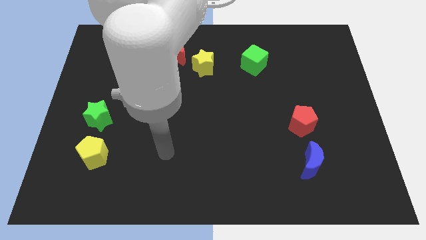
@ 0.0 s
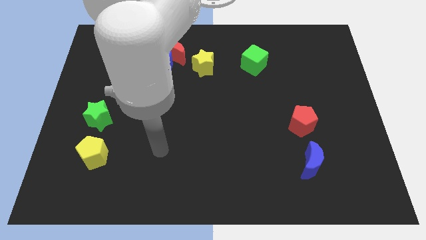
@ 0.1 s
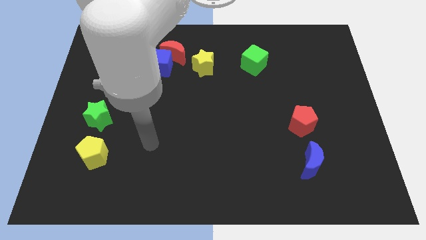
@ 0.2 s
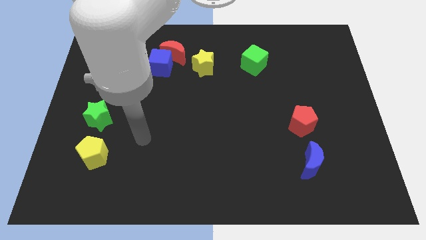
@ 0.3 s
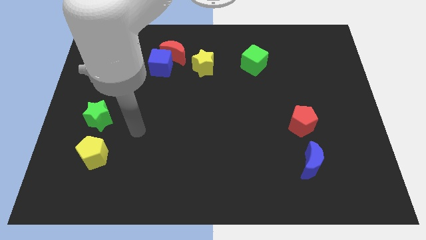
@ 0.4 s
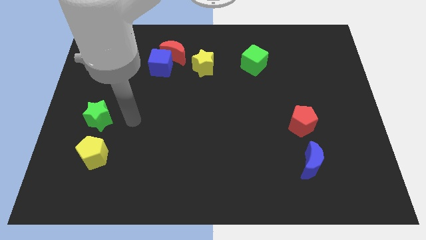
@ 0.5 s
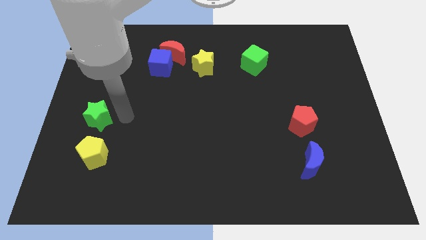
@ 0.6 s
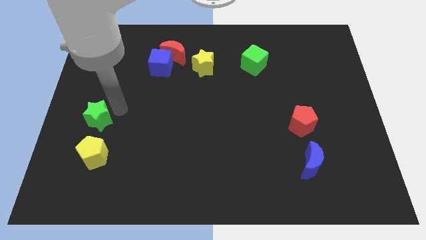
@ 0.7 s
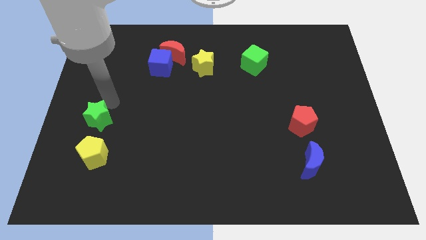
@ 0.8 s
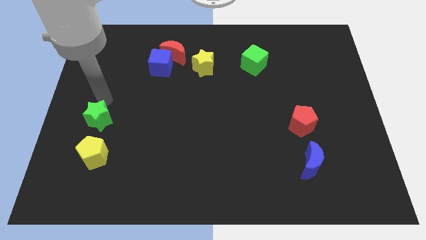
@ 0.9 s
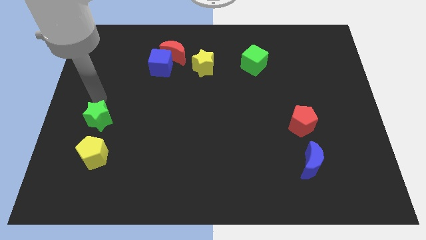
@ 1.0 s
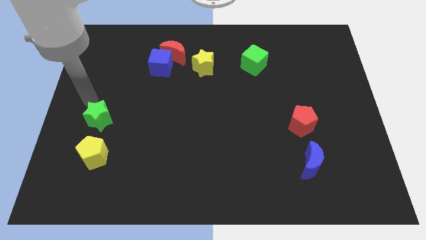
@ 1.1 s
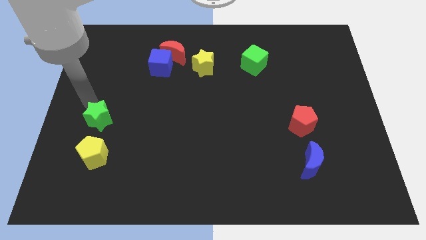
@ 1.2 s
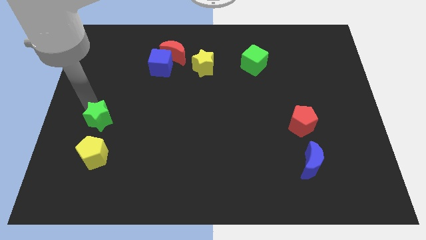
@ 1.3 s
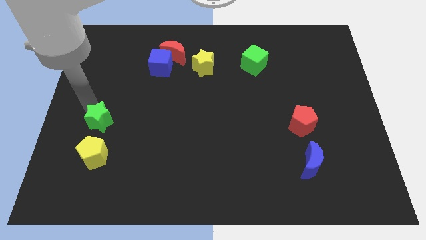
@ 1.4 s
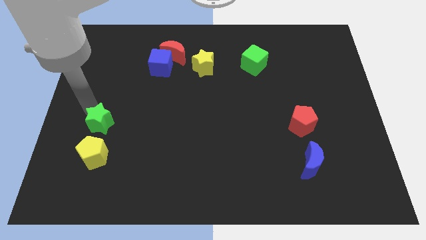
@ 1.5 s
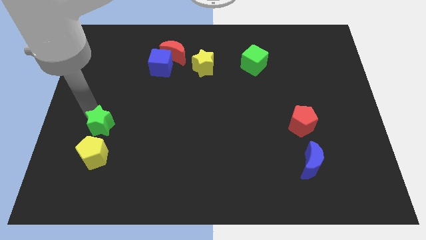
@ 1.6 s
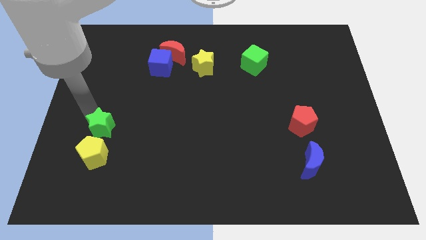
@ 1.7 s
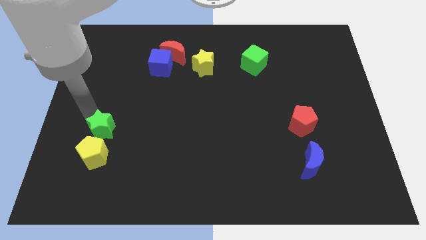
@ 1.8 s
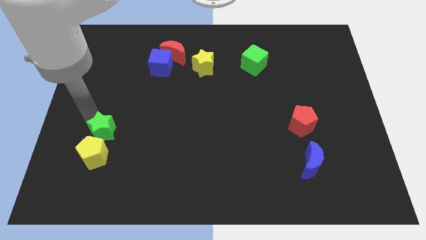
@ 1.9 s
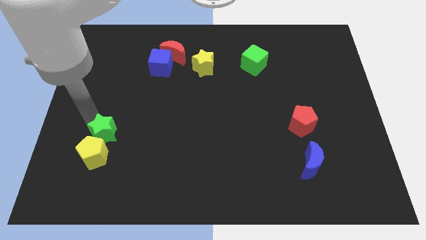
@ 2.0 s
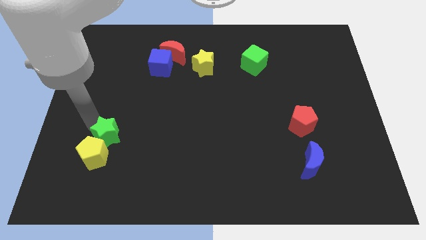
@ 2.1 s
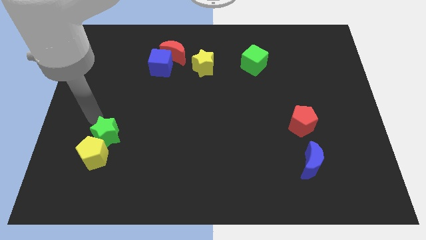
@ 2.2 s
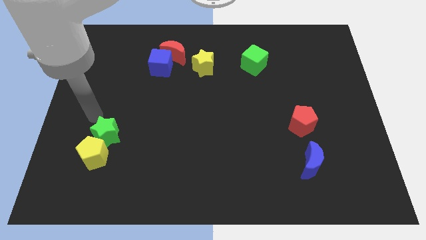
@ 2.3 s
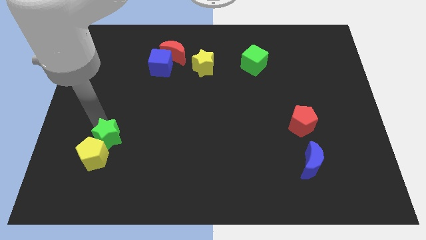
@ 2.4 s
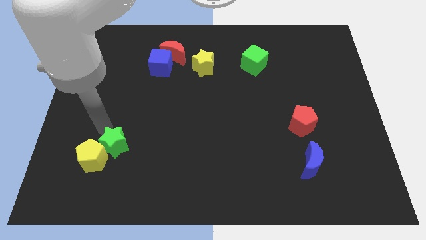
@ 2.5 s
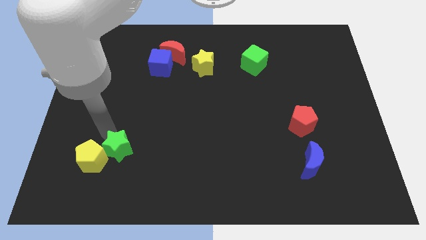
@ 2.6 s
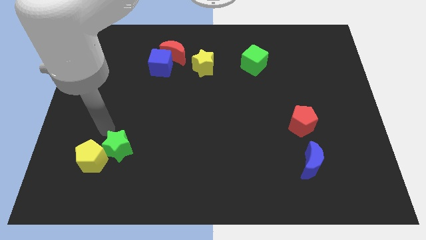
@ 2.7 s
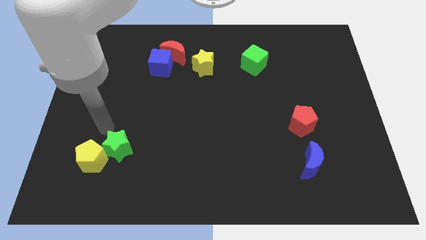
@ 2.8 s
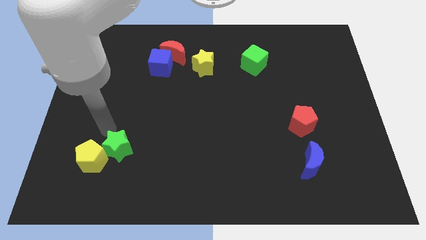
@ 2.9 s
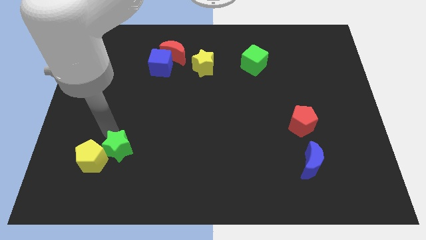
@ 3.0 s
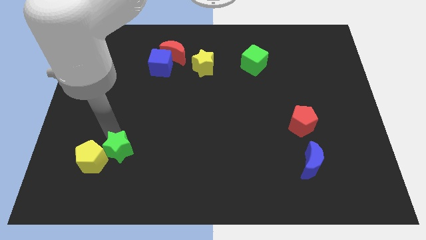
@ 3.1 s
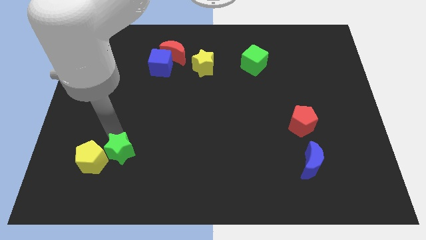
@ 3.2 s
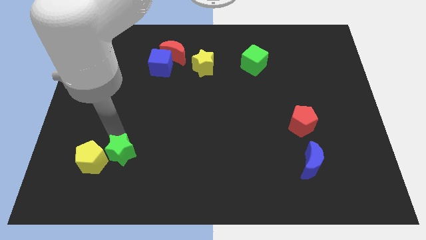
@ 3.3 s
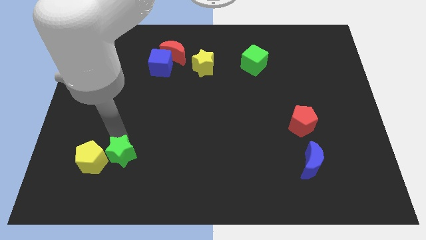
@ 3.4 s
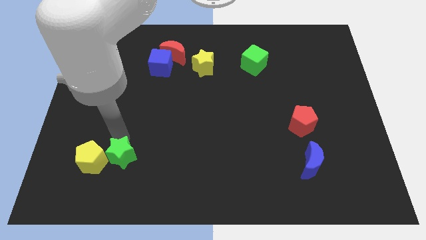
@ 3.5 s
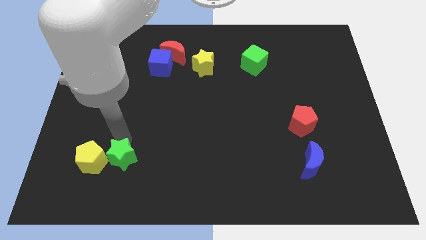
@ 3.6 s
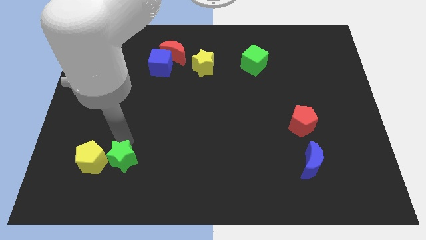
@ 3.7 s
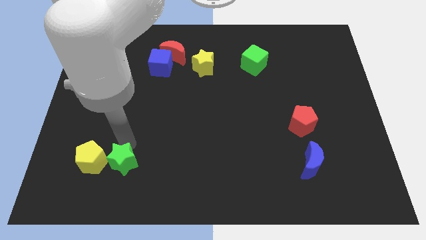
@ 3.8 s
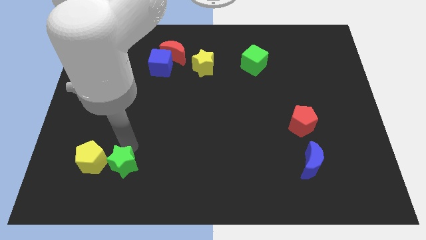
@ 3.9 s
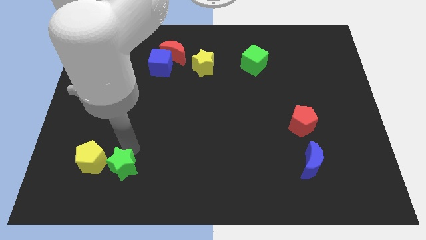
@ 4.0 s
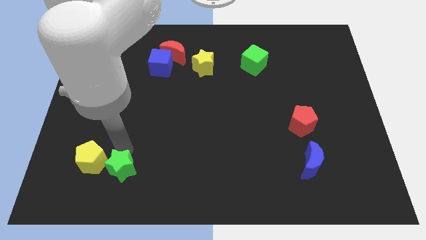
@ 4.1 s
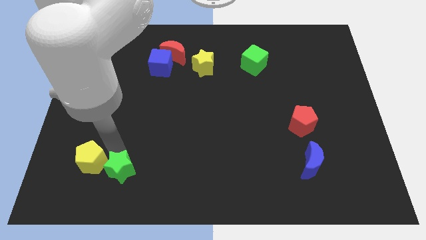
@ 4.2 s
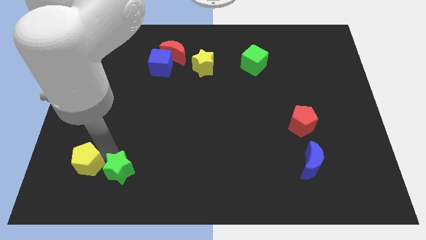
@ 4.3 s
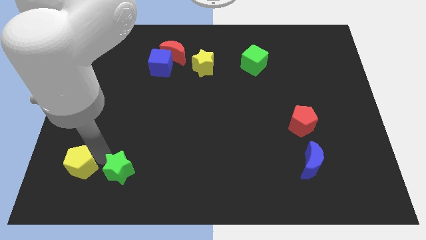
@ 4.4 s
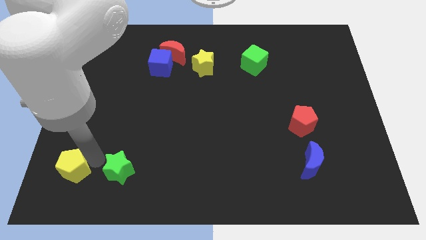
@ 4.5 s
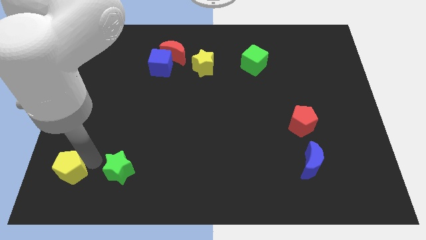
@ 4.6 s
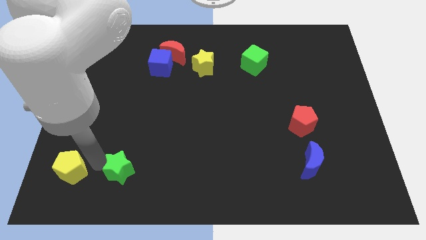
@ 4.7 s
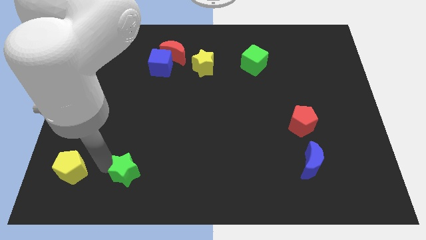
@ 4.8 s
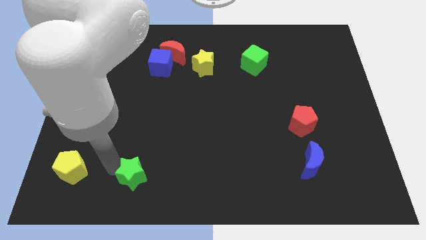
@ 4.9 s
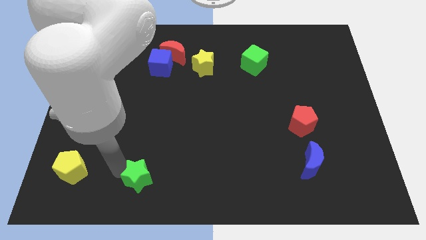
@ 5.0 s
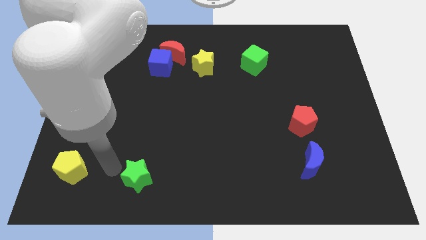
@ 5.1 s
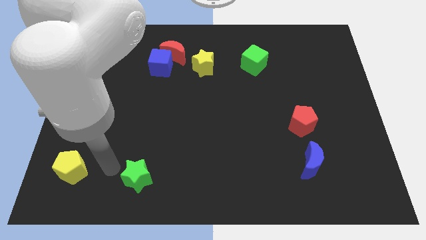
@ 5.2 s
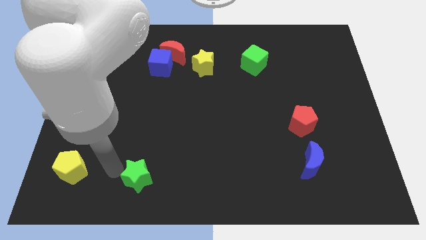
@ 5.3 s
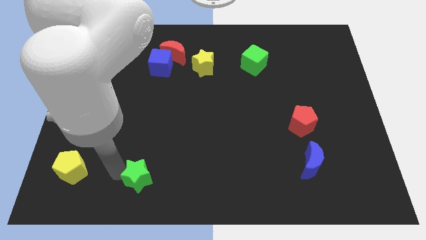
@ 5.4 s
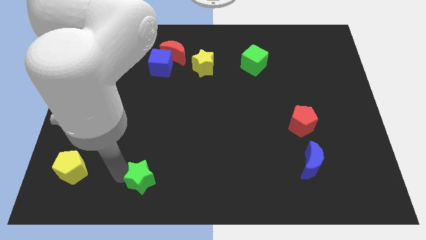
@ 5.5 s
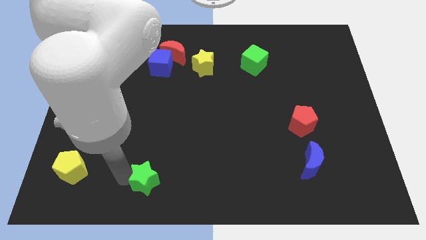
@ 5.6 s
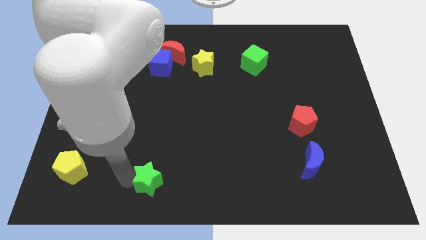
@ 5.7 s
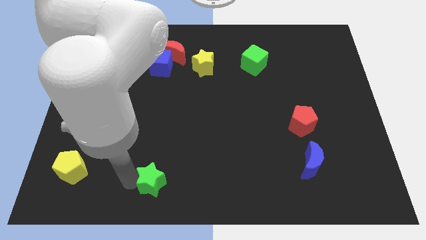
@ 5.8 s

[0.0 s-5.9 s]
slide the green star to the bottom
